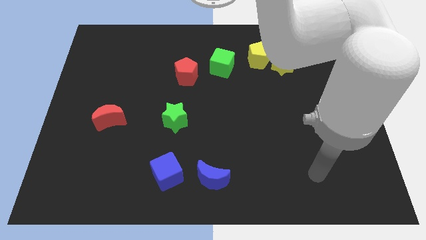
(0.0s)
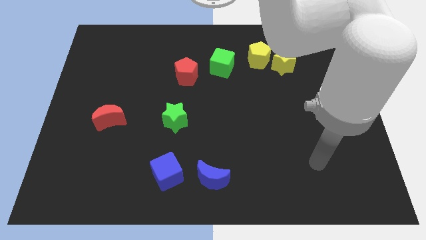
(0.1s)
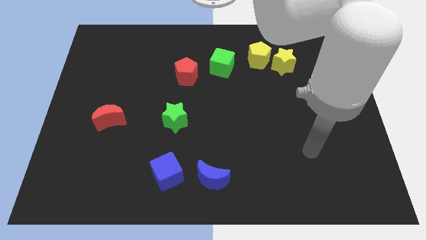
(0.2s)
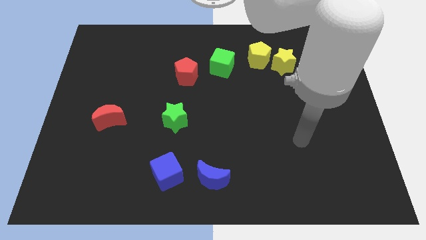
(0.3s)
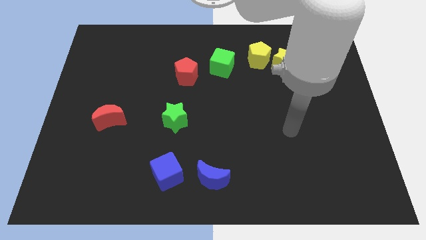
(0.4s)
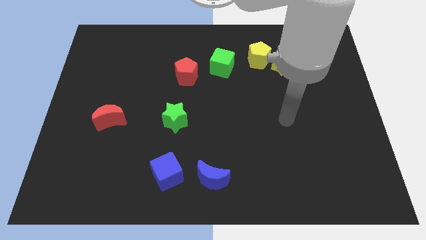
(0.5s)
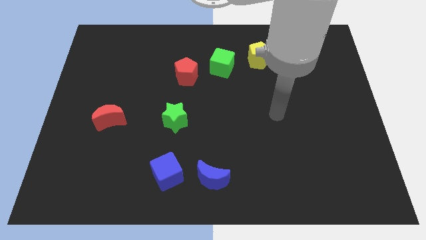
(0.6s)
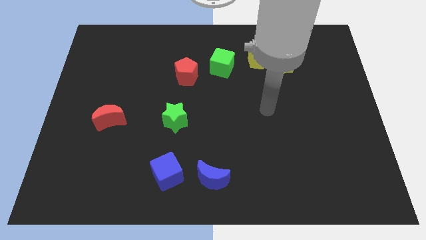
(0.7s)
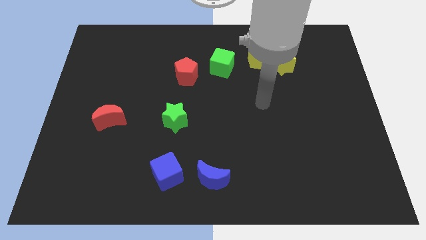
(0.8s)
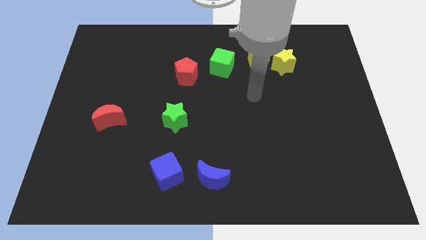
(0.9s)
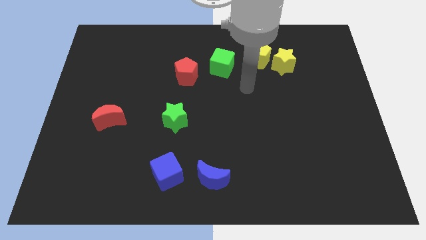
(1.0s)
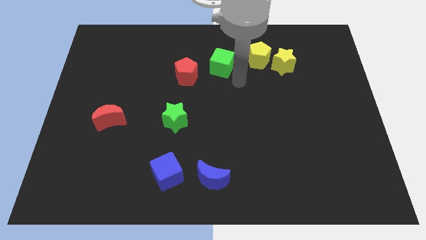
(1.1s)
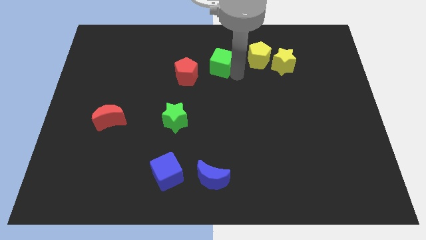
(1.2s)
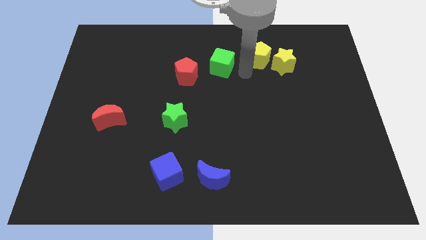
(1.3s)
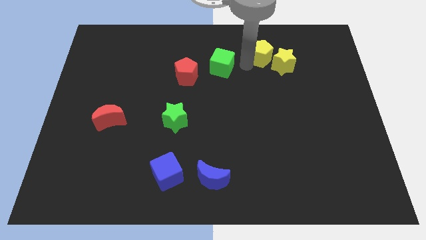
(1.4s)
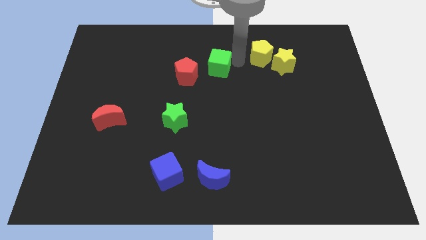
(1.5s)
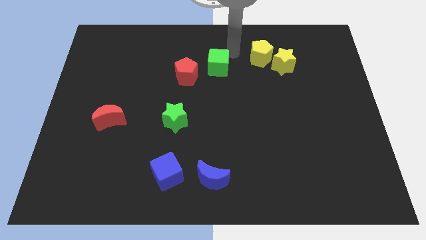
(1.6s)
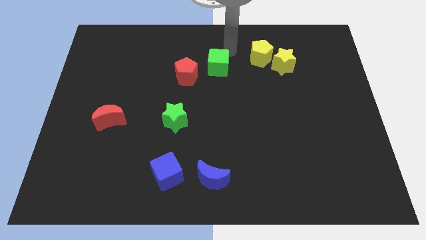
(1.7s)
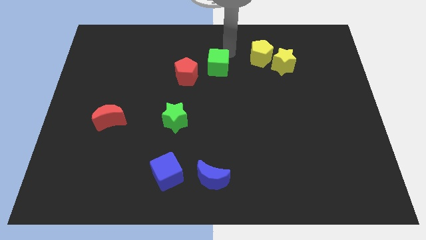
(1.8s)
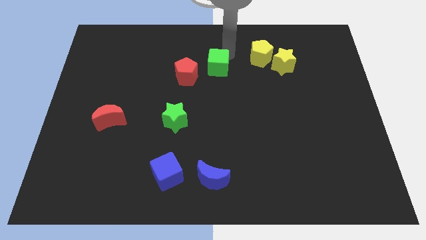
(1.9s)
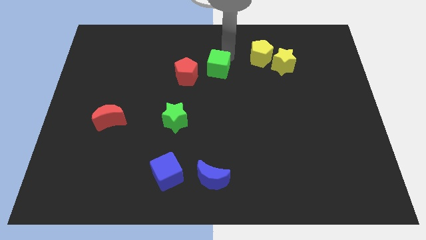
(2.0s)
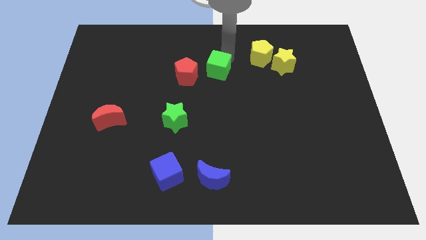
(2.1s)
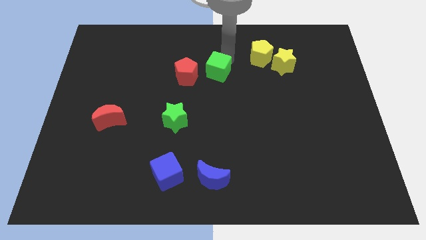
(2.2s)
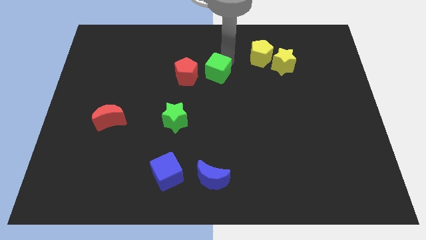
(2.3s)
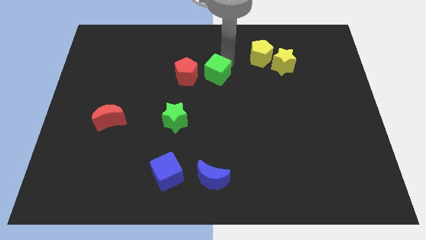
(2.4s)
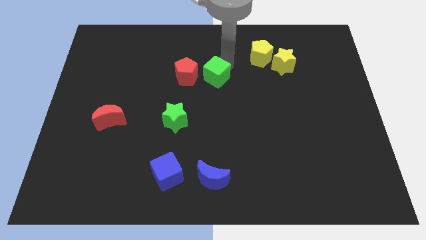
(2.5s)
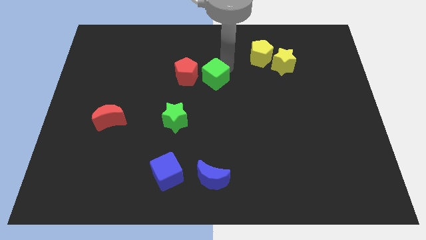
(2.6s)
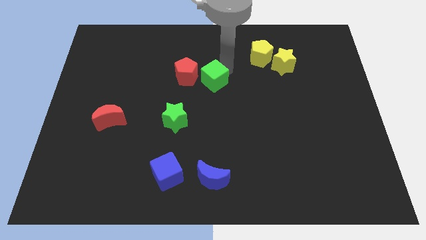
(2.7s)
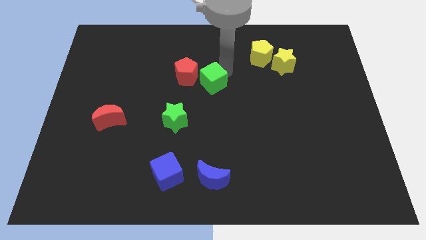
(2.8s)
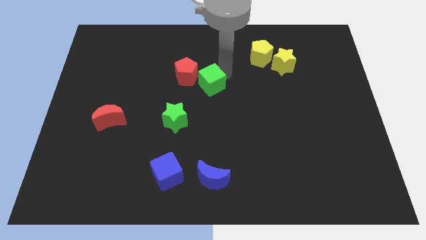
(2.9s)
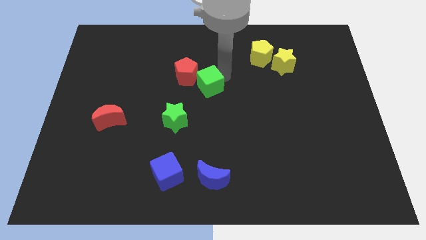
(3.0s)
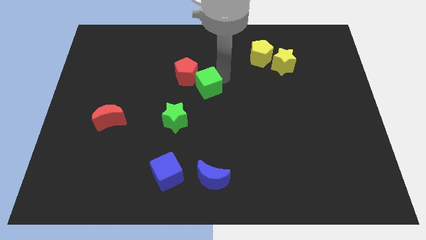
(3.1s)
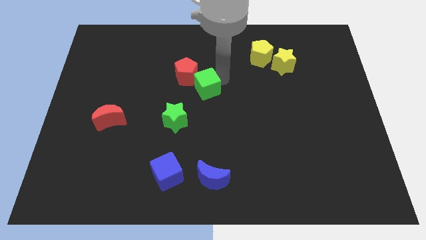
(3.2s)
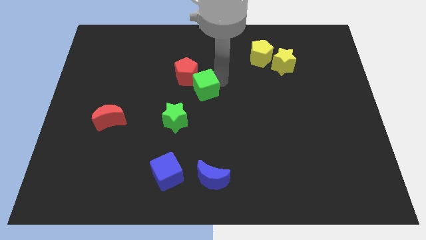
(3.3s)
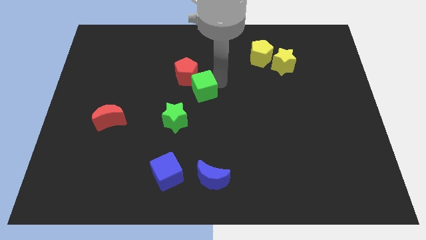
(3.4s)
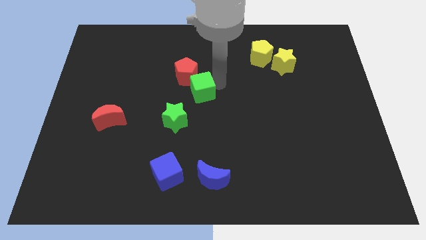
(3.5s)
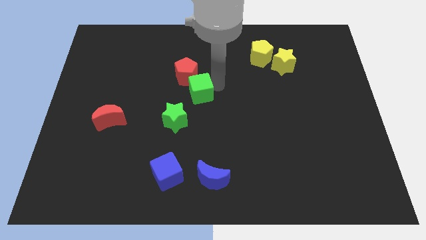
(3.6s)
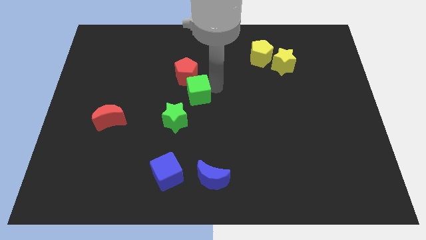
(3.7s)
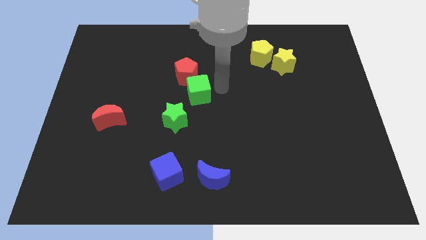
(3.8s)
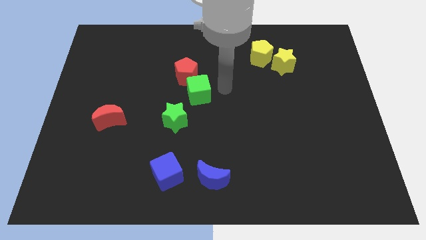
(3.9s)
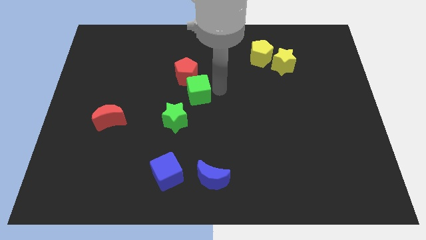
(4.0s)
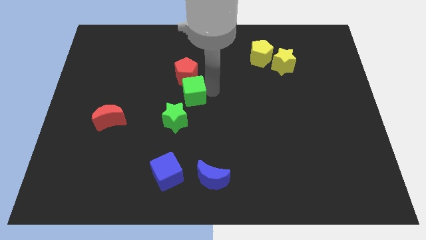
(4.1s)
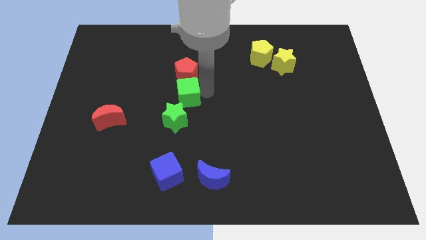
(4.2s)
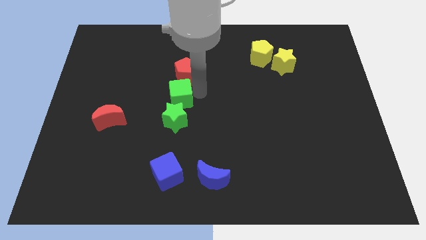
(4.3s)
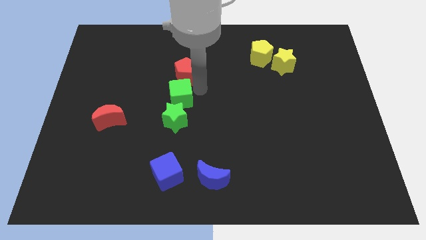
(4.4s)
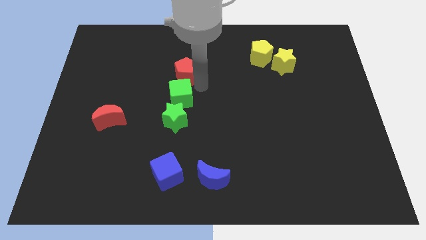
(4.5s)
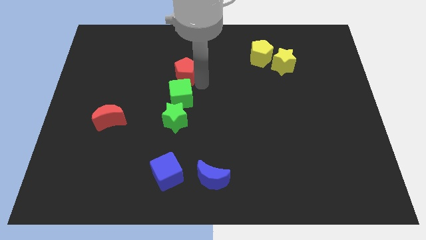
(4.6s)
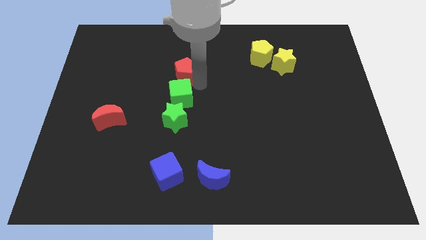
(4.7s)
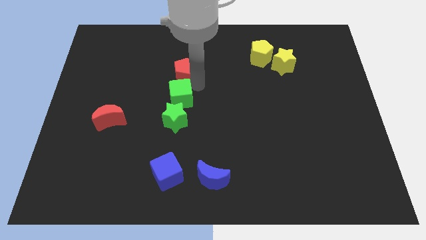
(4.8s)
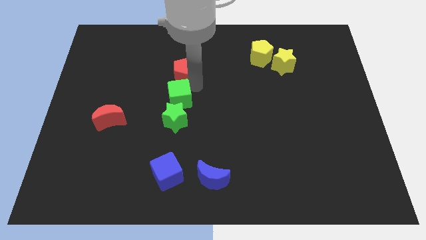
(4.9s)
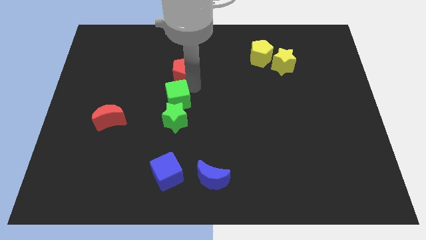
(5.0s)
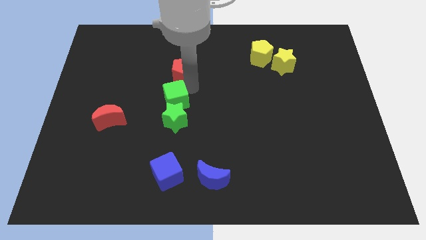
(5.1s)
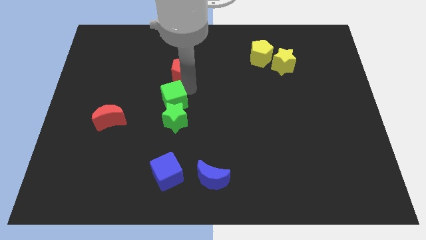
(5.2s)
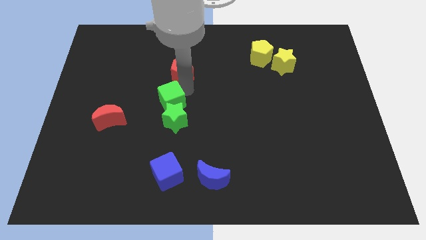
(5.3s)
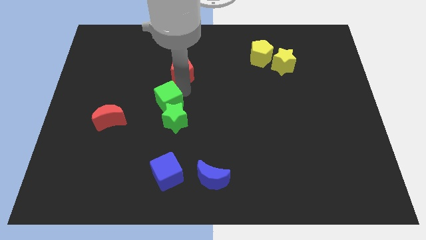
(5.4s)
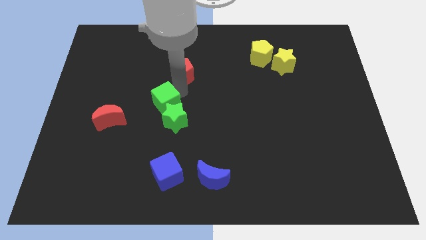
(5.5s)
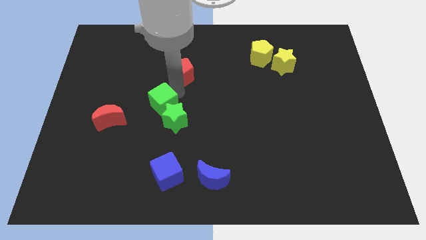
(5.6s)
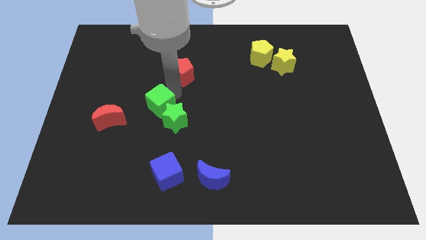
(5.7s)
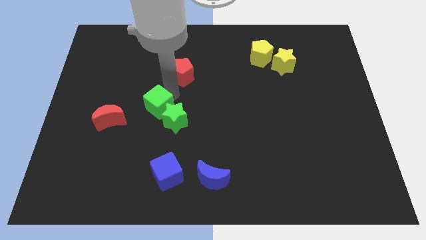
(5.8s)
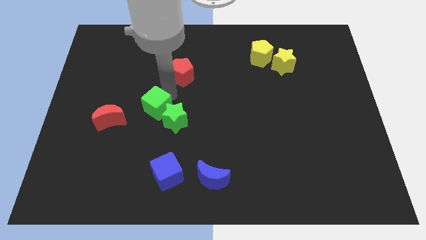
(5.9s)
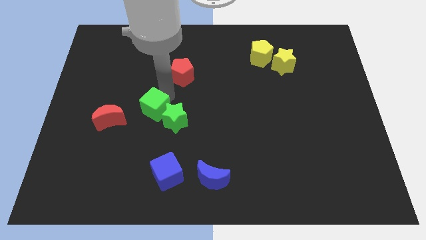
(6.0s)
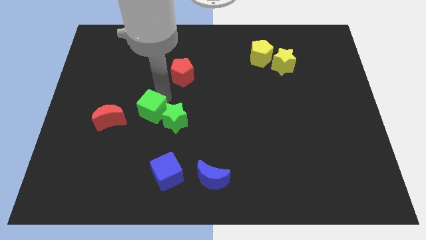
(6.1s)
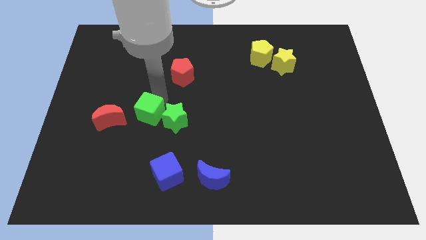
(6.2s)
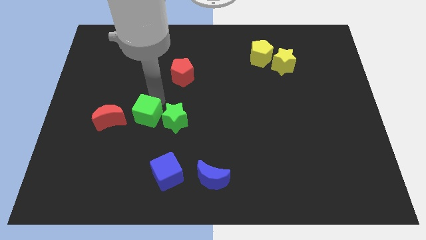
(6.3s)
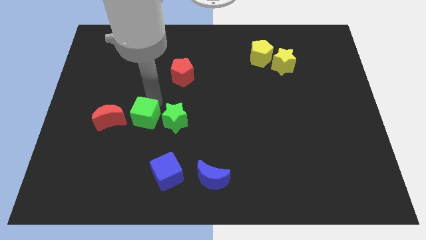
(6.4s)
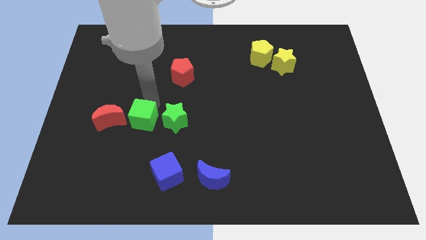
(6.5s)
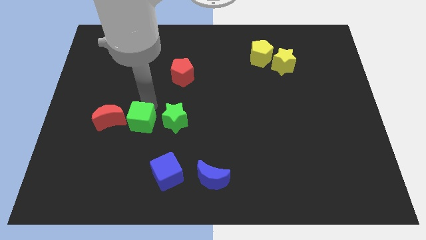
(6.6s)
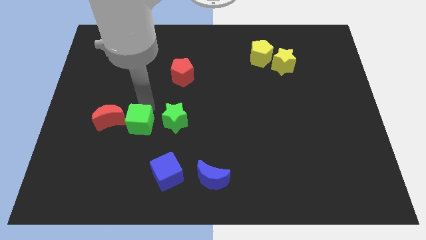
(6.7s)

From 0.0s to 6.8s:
move the green cube diagonally down and to the left of the green star

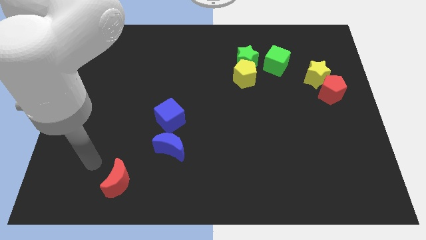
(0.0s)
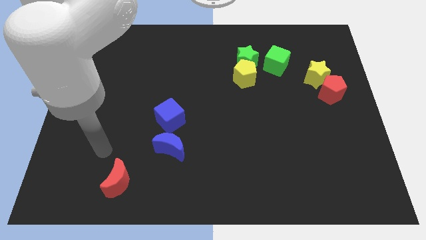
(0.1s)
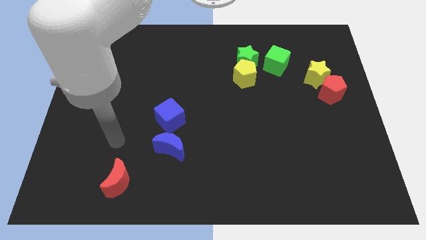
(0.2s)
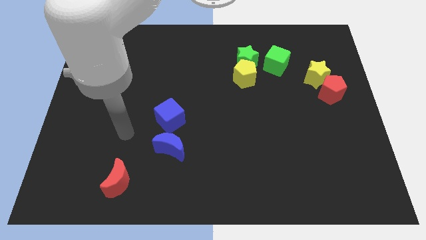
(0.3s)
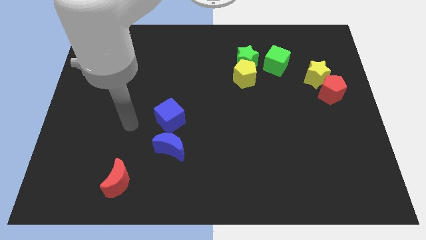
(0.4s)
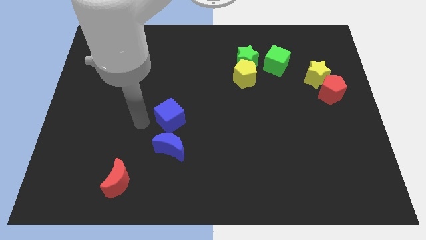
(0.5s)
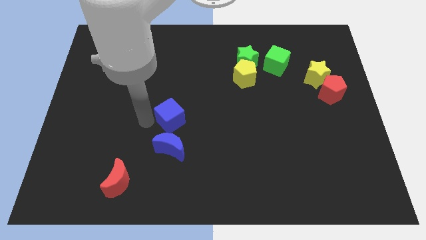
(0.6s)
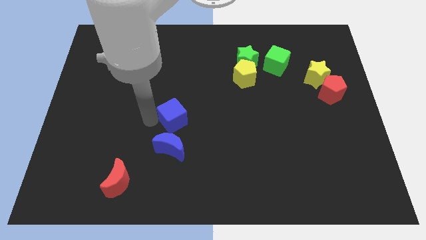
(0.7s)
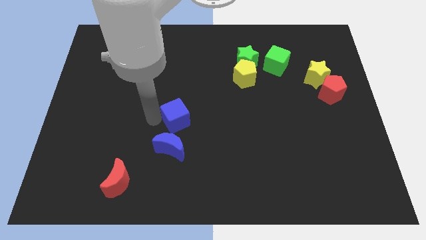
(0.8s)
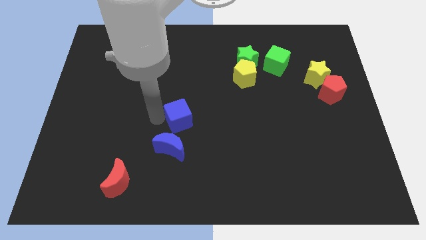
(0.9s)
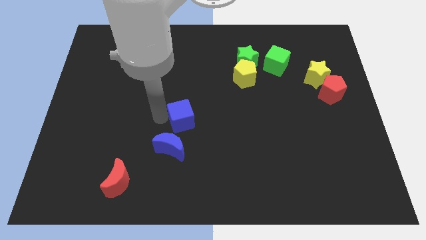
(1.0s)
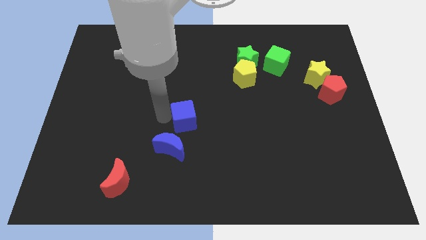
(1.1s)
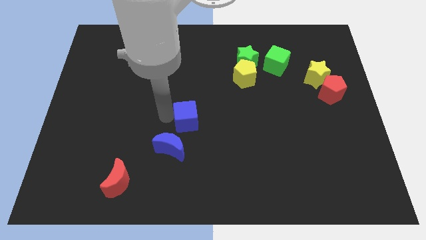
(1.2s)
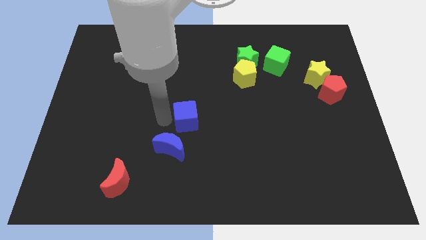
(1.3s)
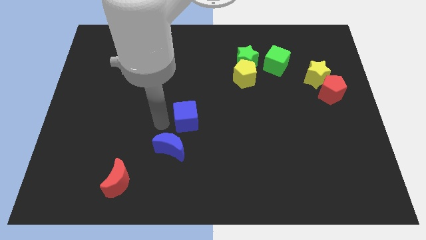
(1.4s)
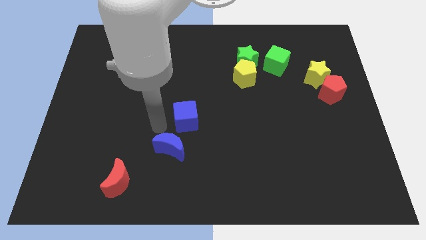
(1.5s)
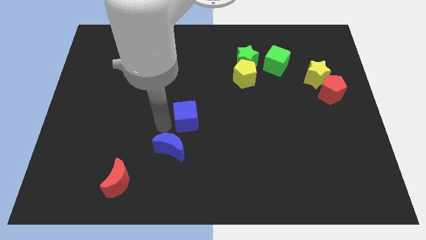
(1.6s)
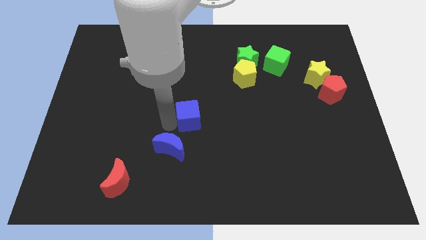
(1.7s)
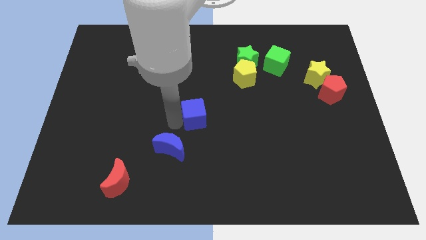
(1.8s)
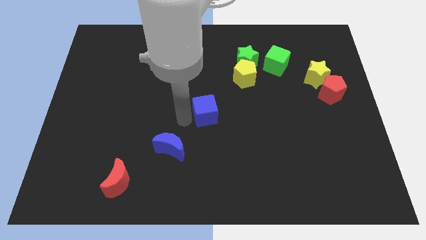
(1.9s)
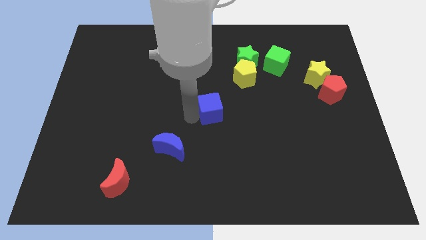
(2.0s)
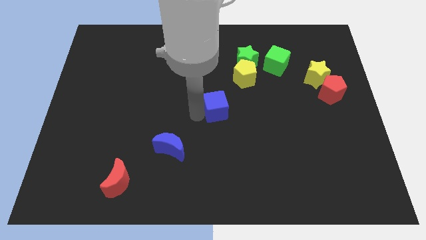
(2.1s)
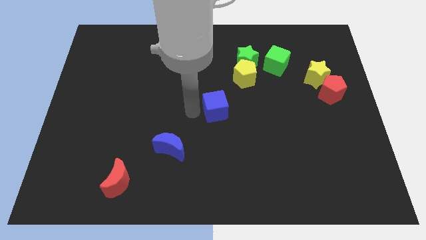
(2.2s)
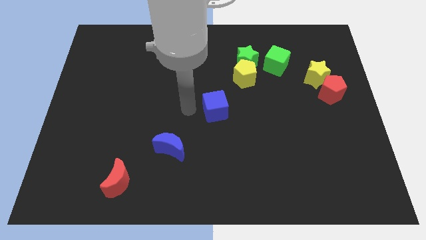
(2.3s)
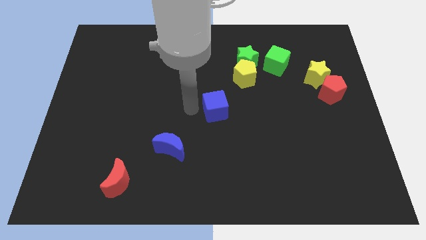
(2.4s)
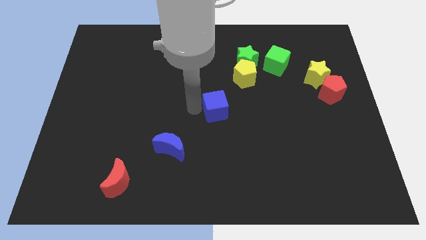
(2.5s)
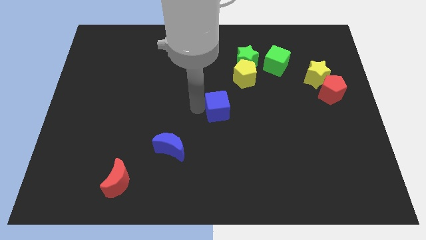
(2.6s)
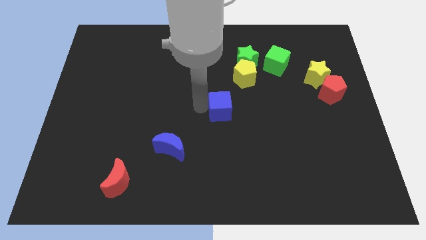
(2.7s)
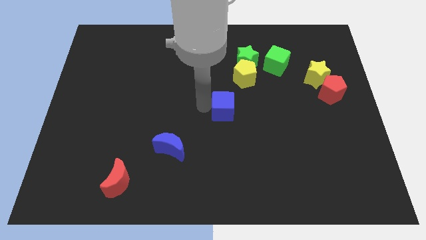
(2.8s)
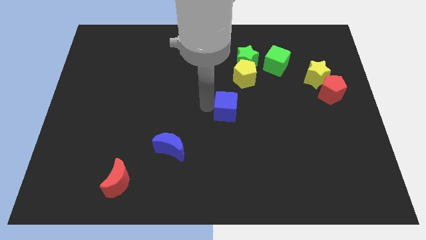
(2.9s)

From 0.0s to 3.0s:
move the blue cube to the bottom side of the yellow pentagon
